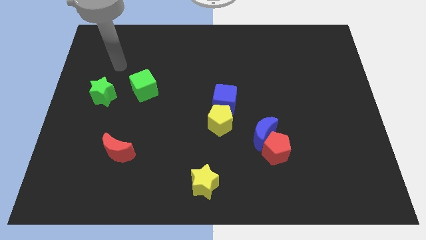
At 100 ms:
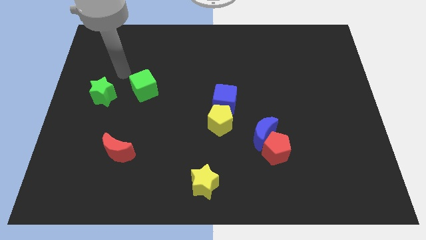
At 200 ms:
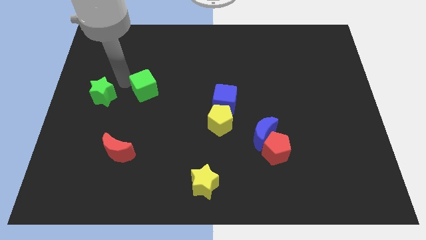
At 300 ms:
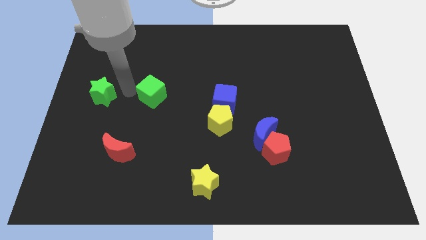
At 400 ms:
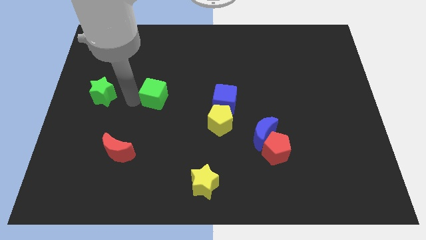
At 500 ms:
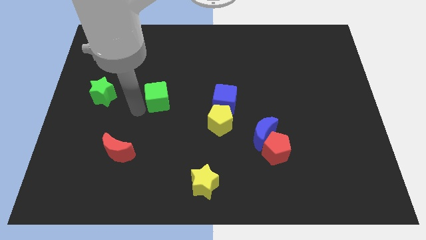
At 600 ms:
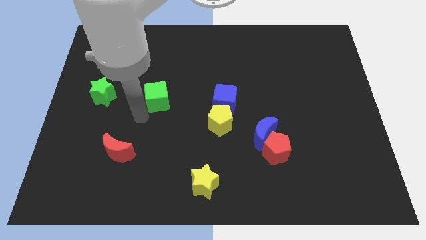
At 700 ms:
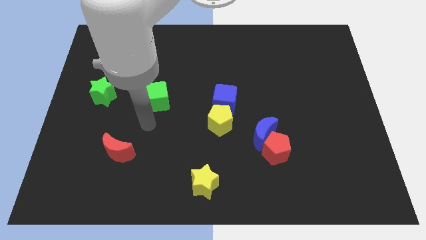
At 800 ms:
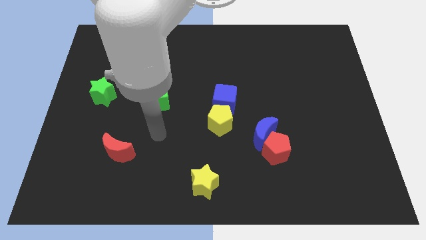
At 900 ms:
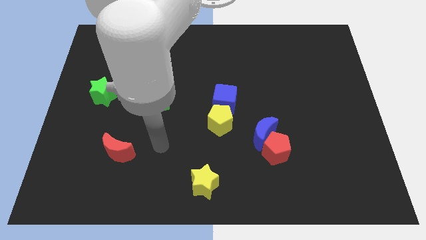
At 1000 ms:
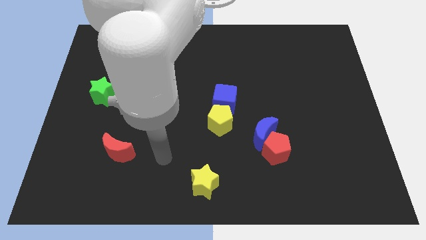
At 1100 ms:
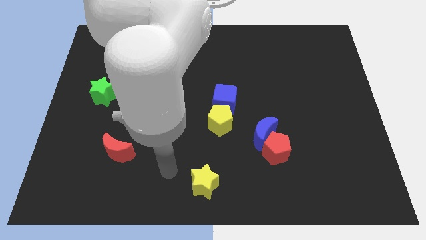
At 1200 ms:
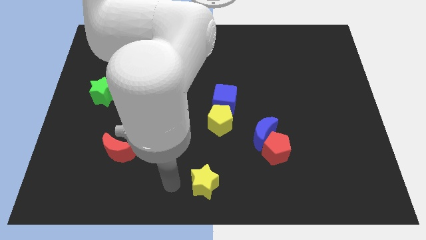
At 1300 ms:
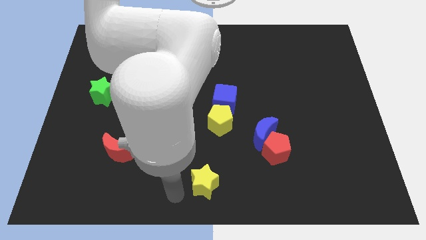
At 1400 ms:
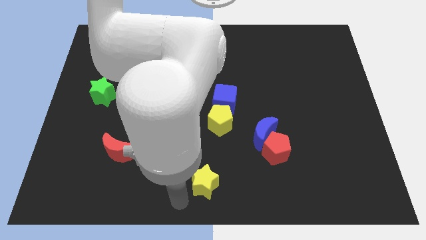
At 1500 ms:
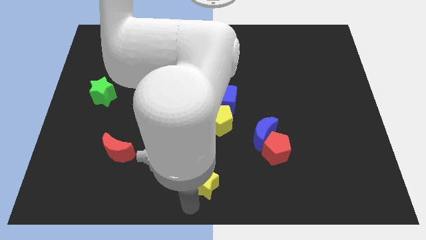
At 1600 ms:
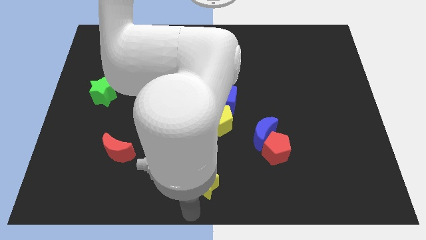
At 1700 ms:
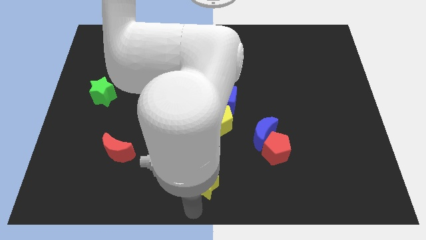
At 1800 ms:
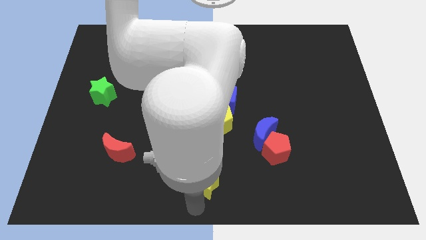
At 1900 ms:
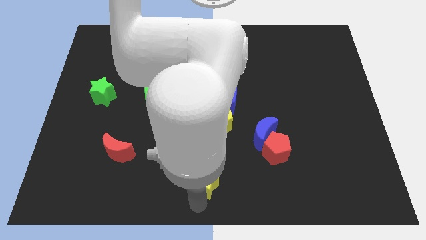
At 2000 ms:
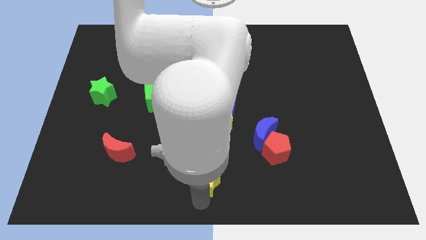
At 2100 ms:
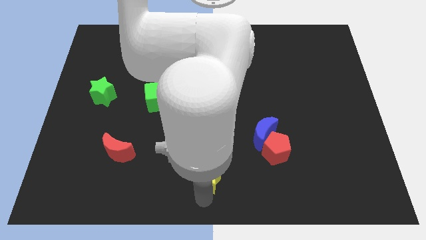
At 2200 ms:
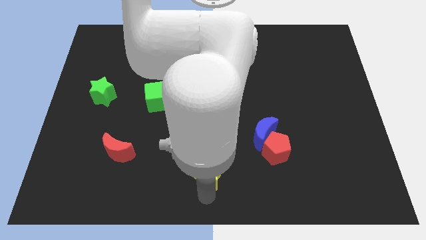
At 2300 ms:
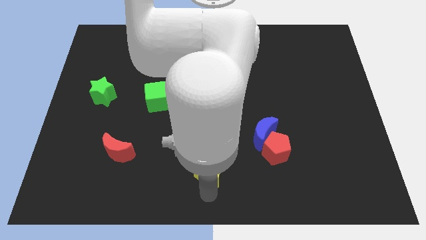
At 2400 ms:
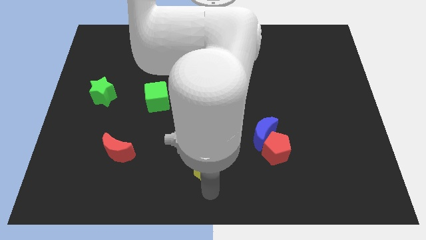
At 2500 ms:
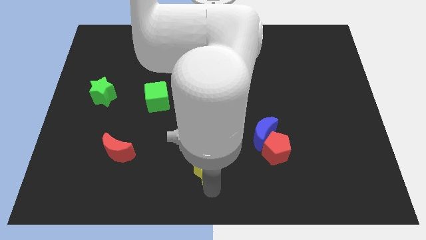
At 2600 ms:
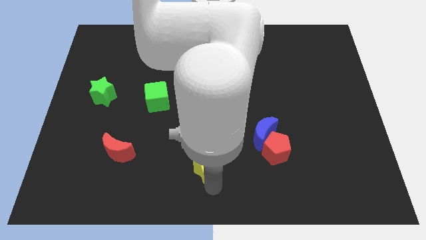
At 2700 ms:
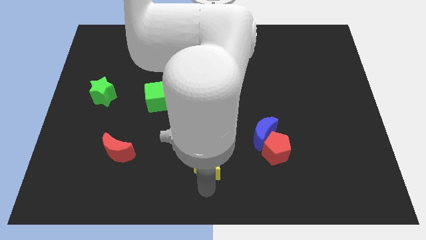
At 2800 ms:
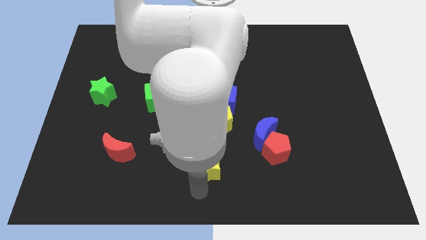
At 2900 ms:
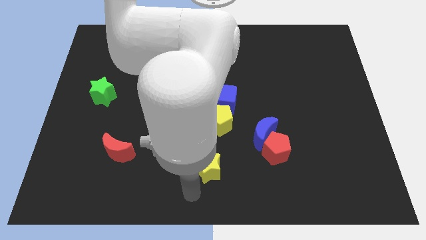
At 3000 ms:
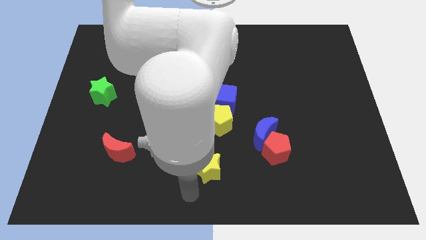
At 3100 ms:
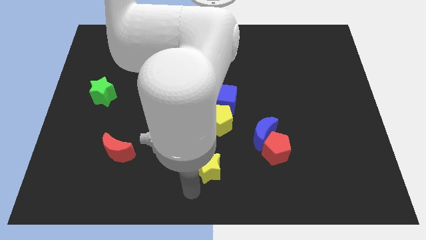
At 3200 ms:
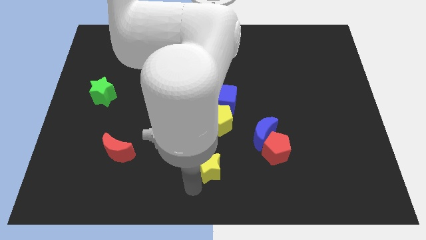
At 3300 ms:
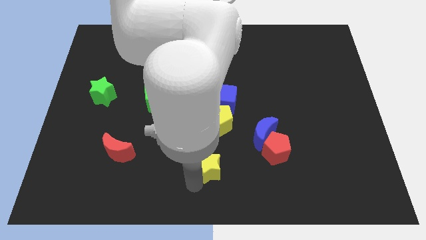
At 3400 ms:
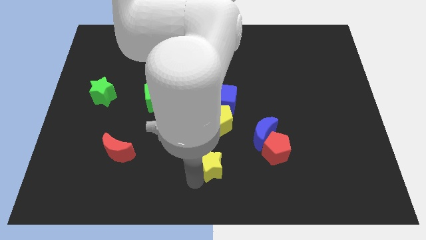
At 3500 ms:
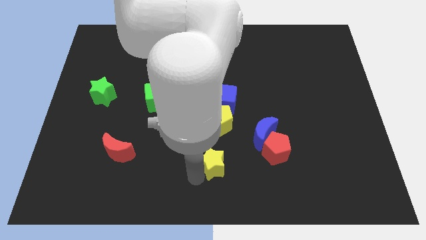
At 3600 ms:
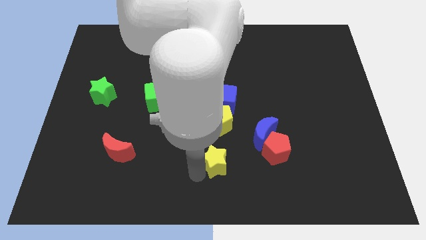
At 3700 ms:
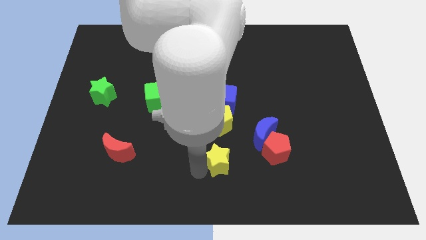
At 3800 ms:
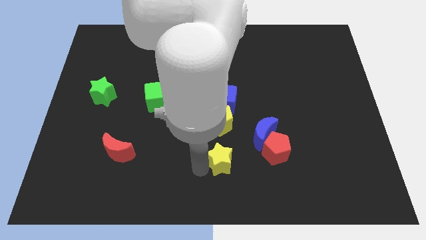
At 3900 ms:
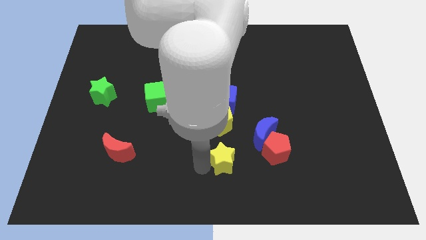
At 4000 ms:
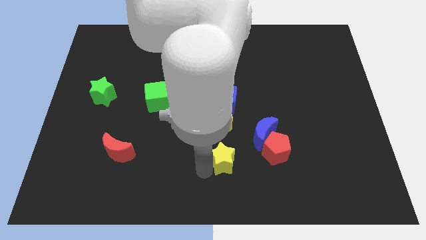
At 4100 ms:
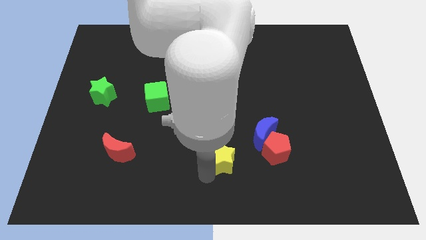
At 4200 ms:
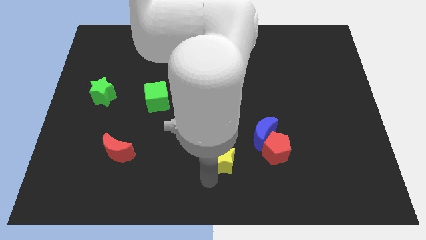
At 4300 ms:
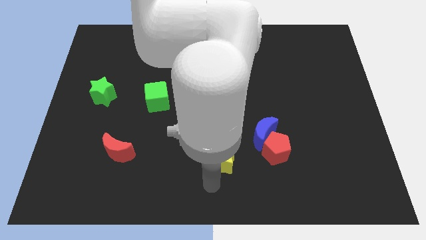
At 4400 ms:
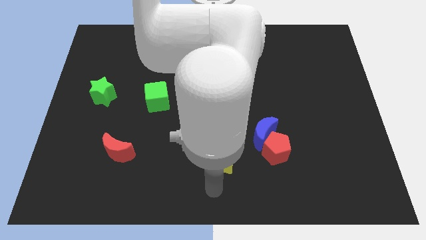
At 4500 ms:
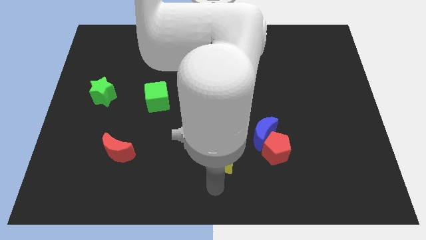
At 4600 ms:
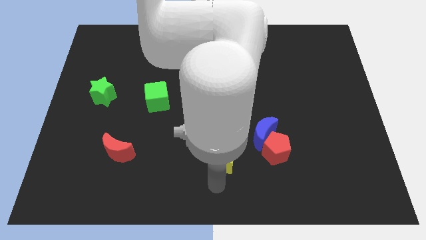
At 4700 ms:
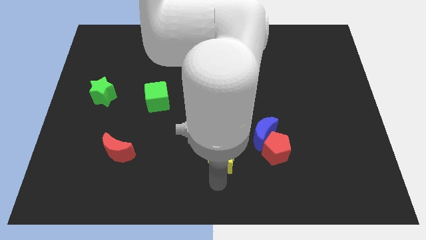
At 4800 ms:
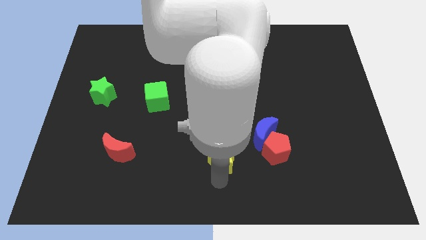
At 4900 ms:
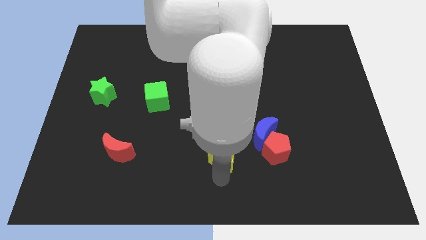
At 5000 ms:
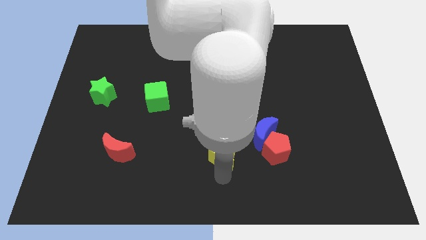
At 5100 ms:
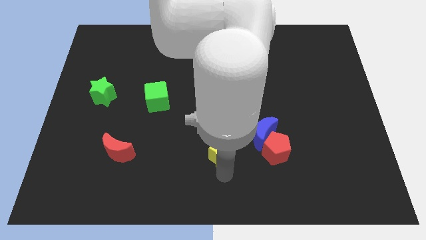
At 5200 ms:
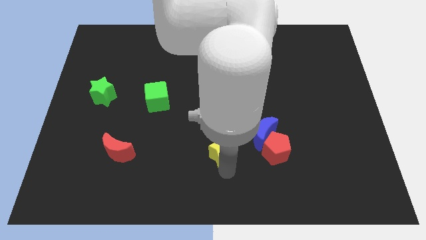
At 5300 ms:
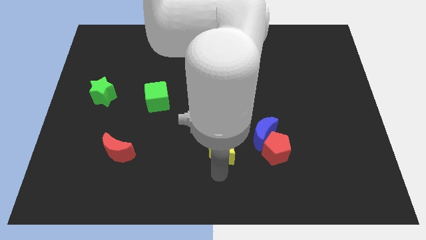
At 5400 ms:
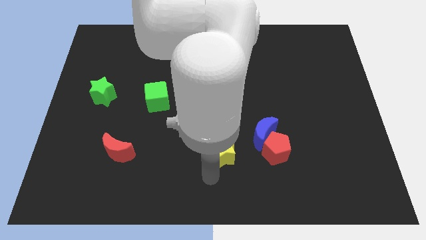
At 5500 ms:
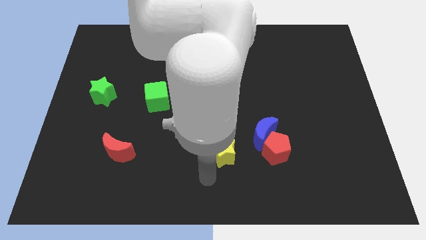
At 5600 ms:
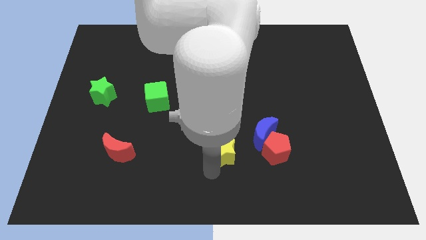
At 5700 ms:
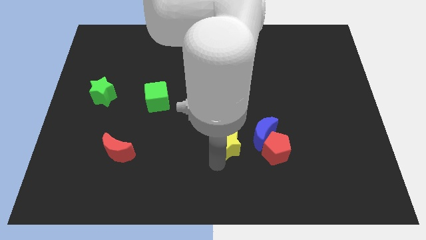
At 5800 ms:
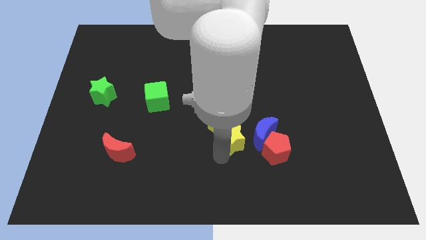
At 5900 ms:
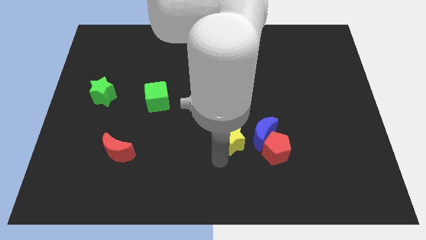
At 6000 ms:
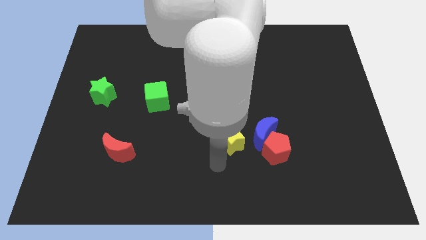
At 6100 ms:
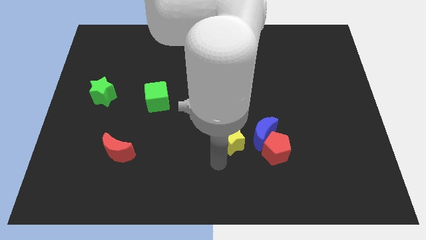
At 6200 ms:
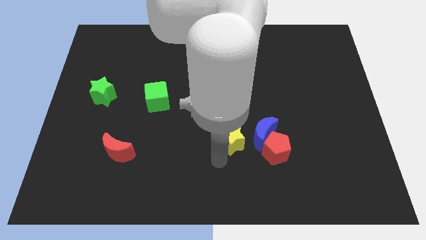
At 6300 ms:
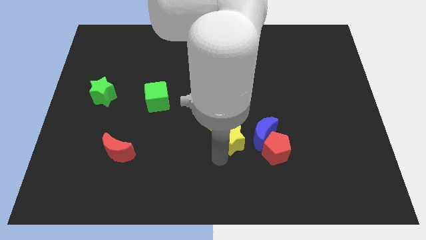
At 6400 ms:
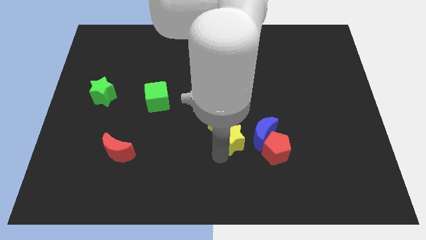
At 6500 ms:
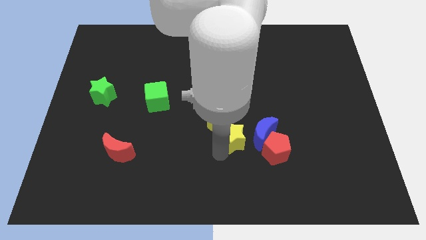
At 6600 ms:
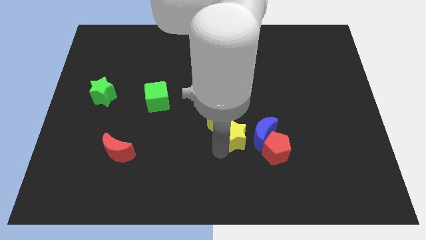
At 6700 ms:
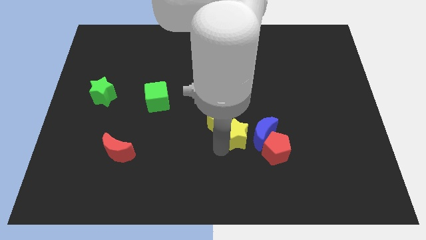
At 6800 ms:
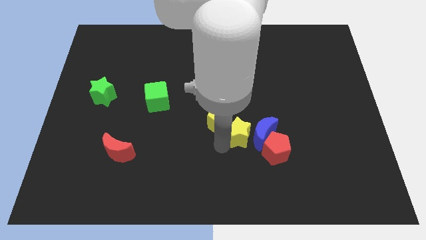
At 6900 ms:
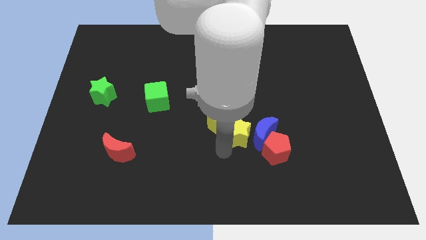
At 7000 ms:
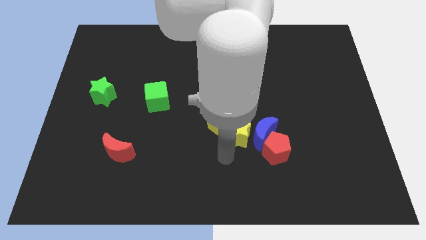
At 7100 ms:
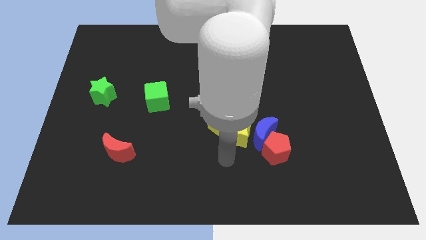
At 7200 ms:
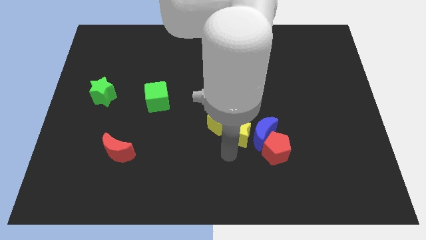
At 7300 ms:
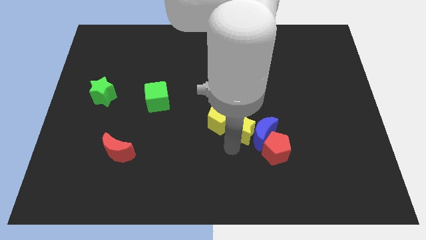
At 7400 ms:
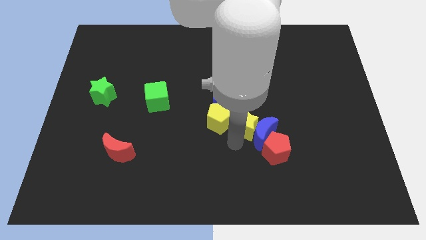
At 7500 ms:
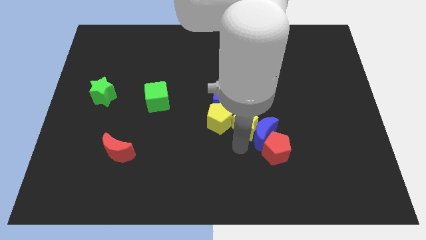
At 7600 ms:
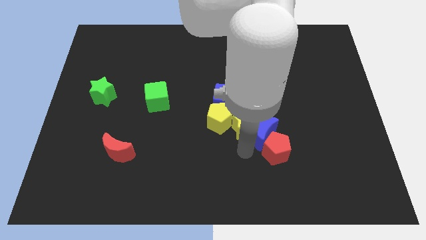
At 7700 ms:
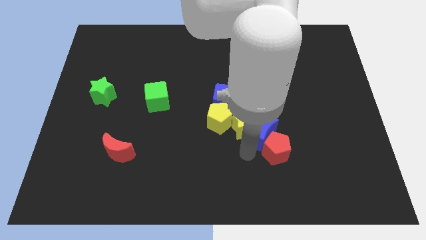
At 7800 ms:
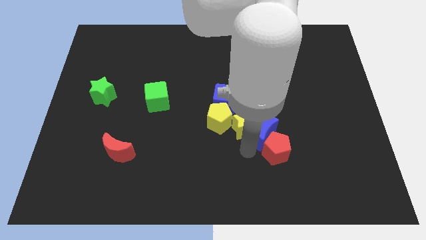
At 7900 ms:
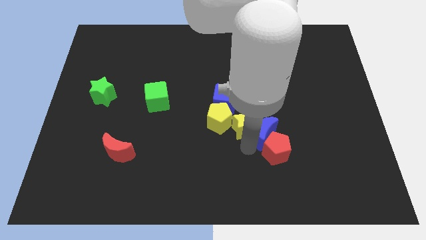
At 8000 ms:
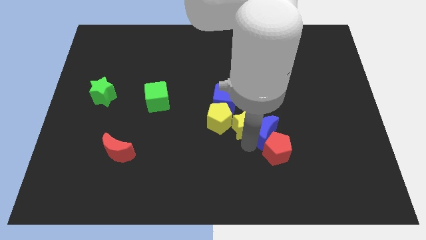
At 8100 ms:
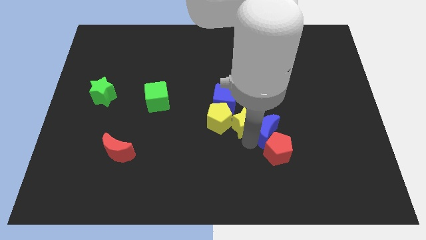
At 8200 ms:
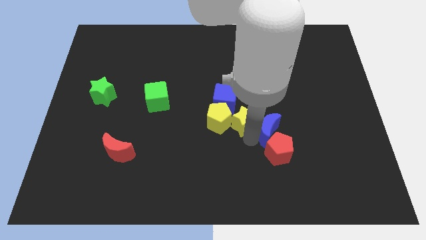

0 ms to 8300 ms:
push the yellow star diagonally up and to the right of the yellow pentagon
